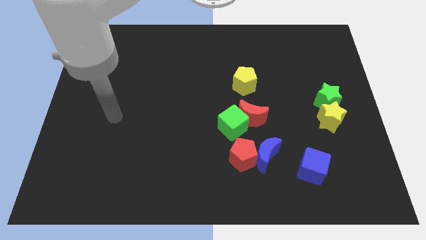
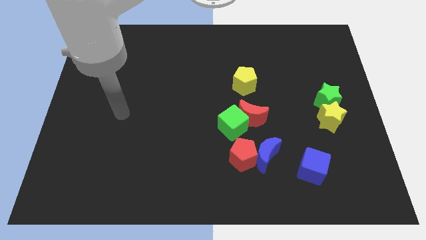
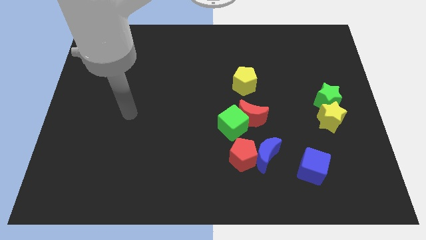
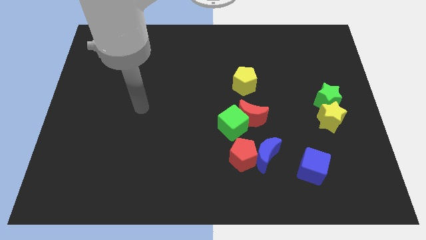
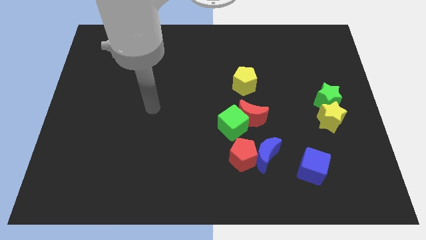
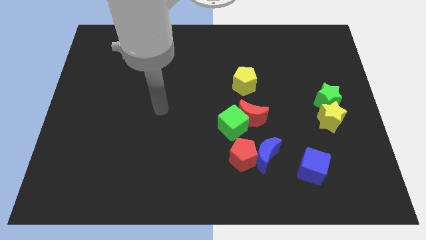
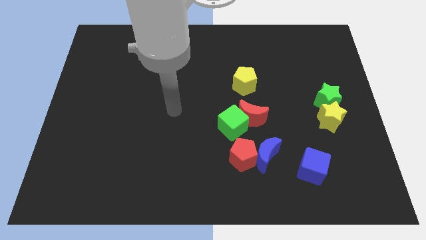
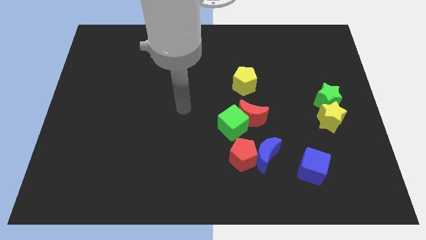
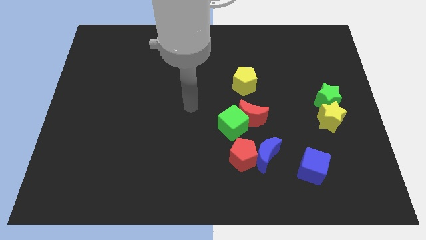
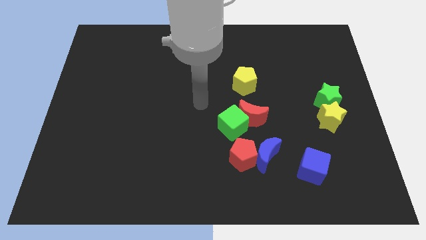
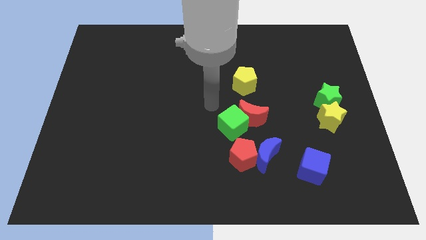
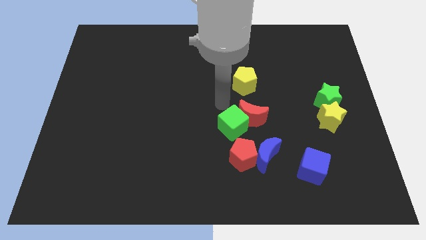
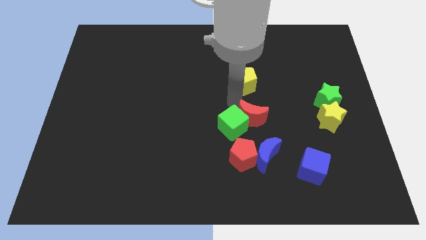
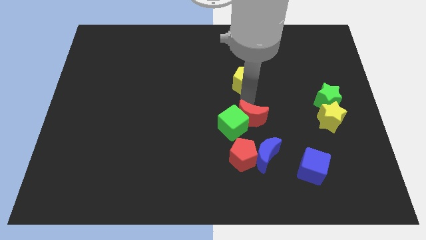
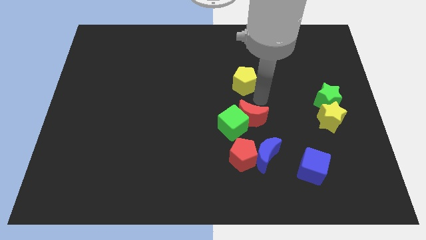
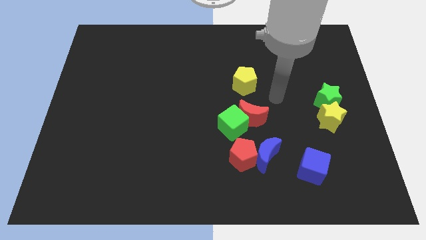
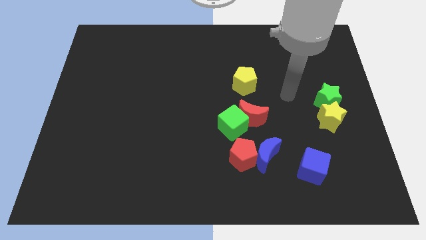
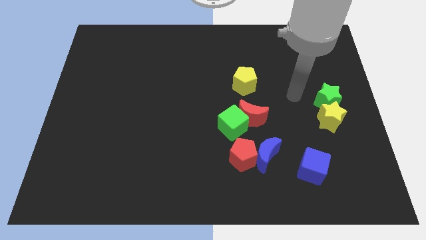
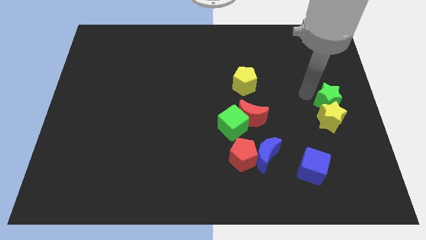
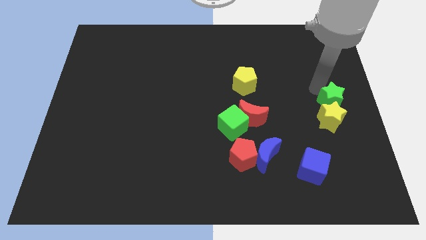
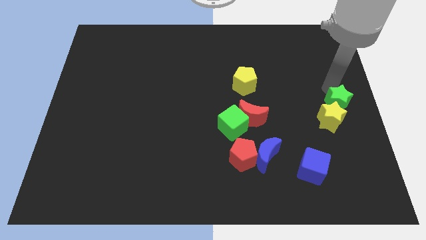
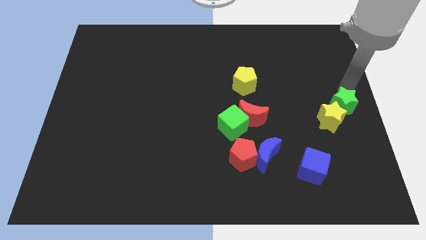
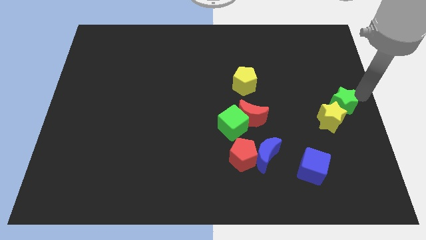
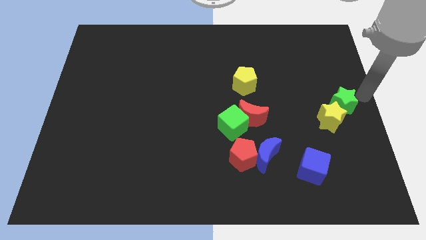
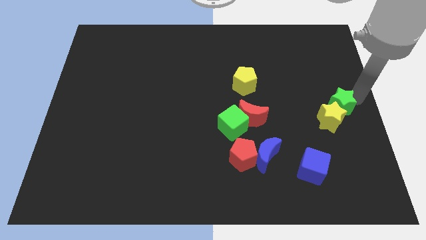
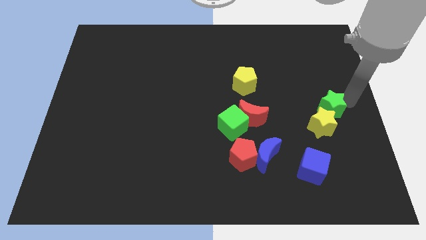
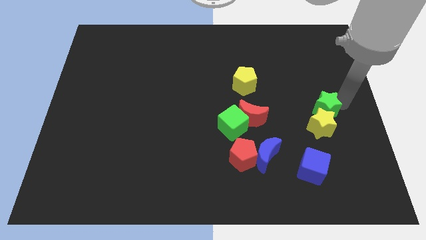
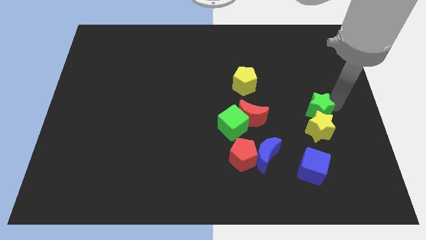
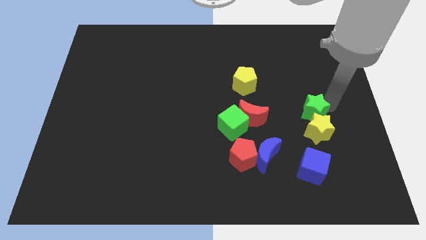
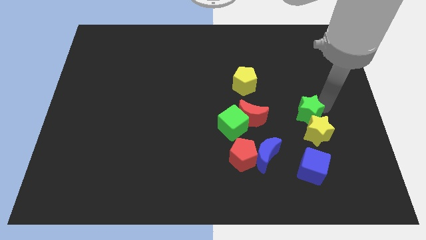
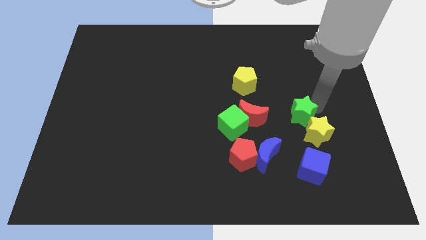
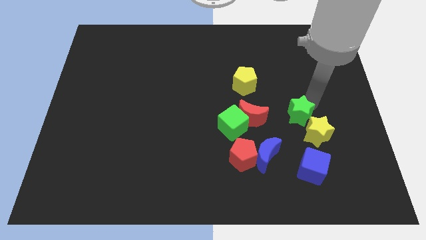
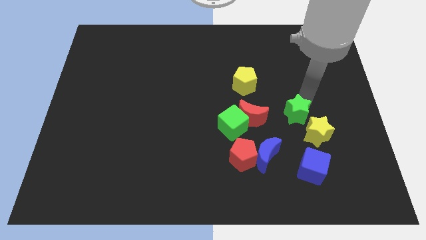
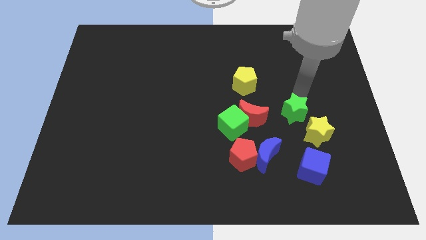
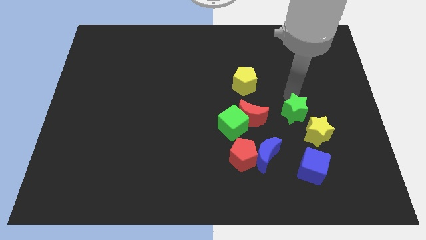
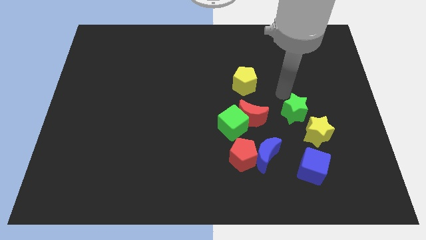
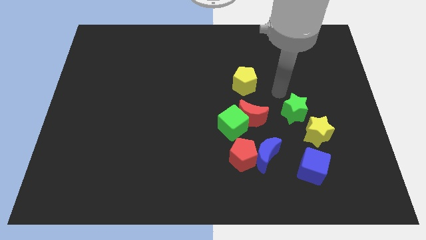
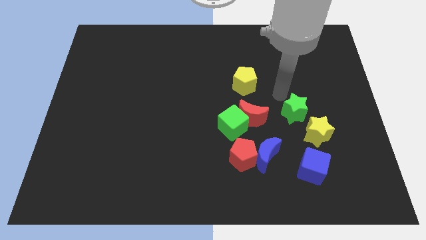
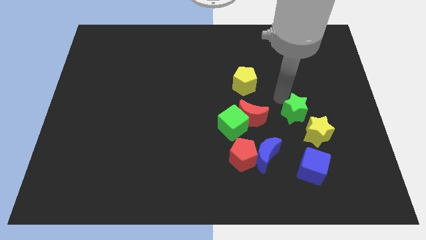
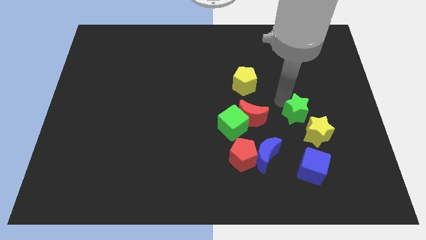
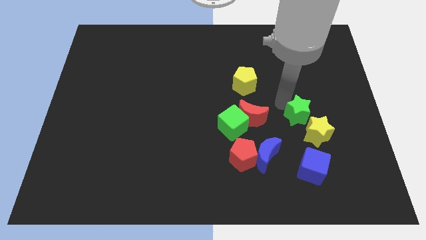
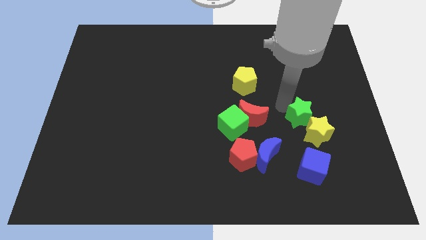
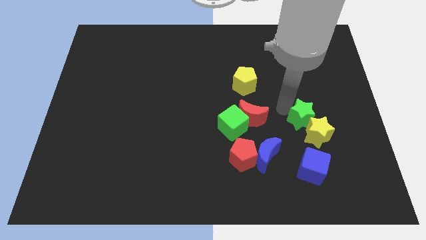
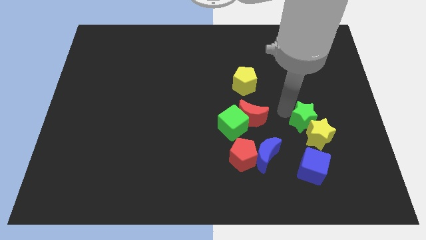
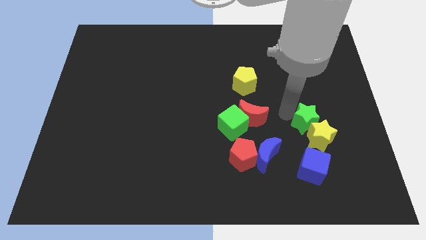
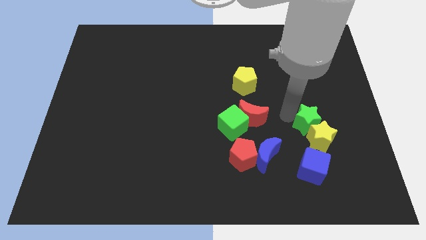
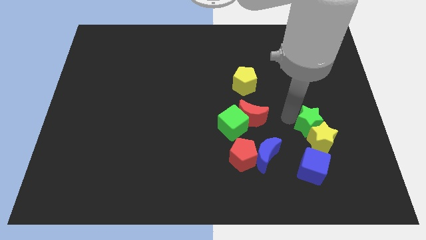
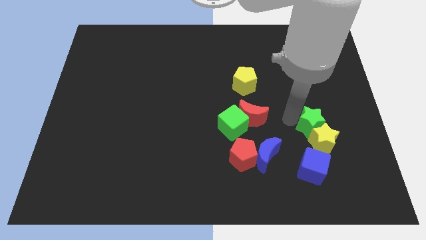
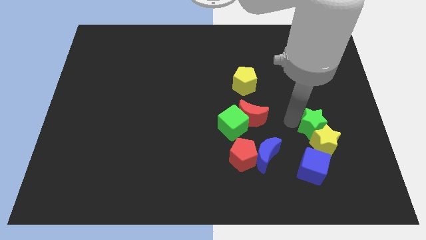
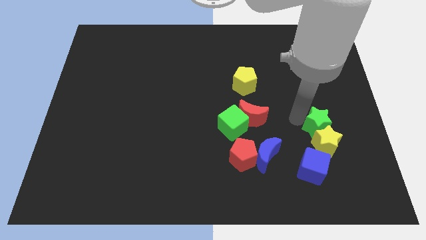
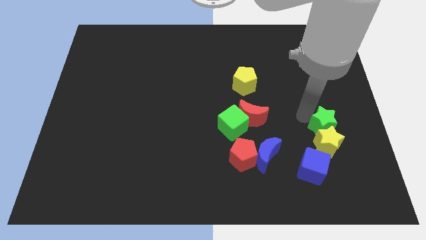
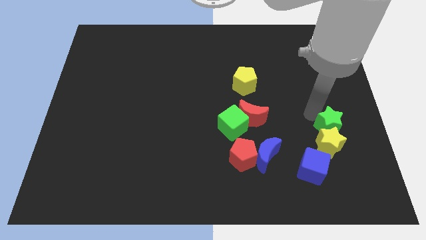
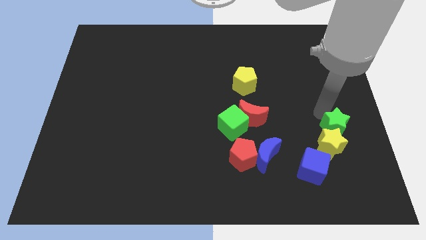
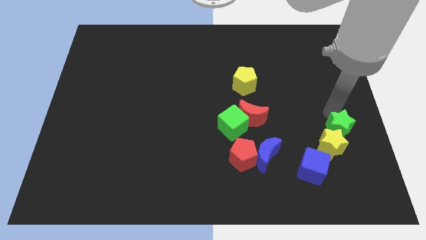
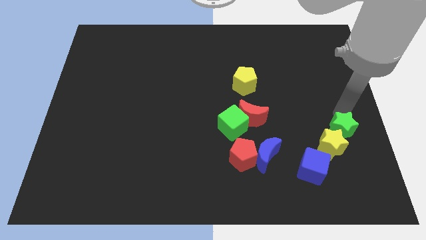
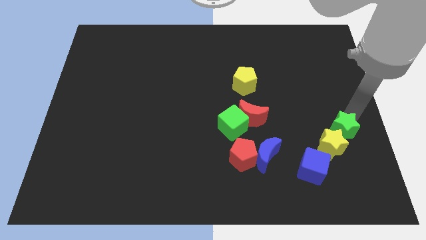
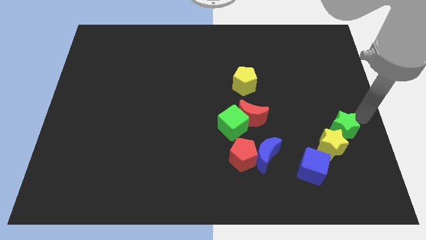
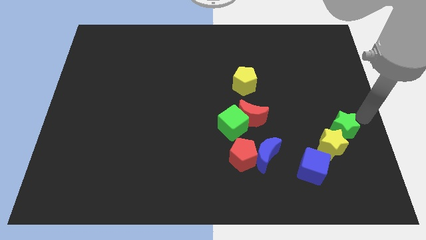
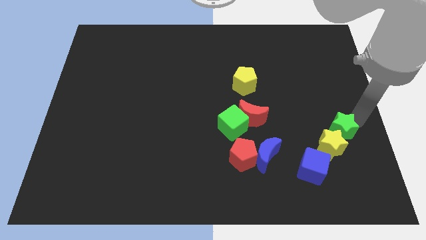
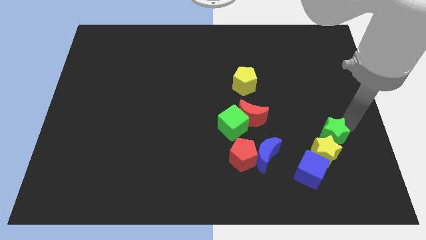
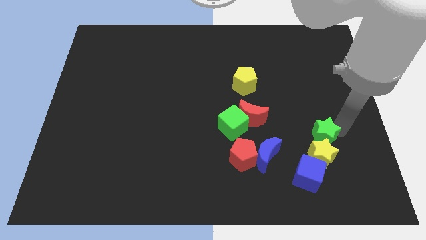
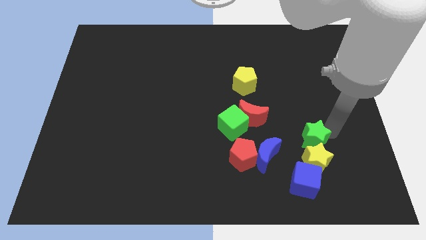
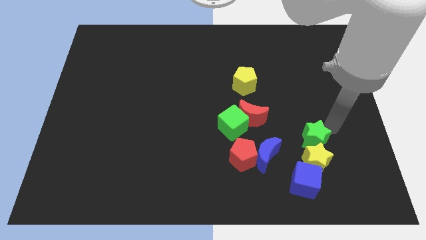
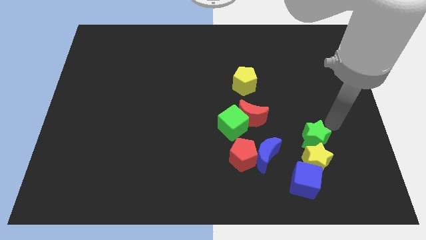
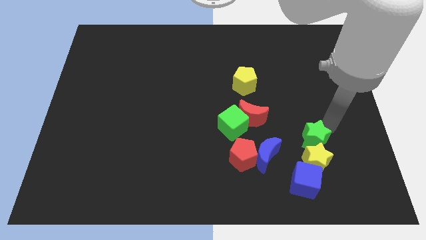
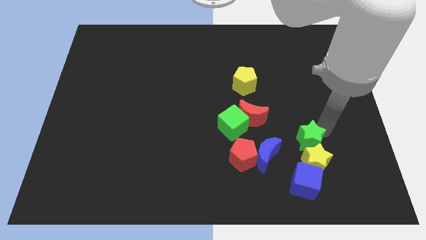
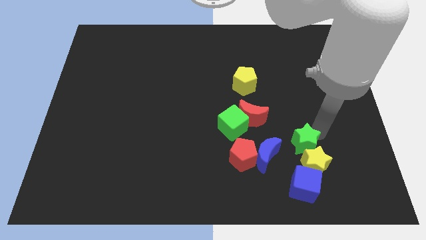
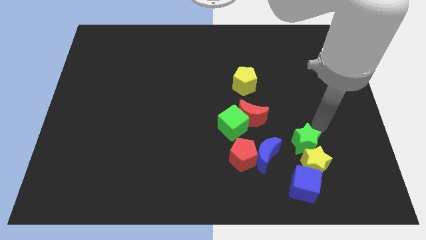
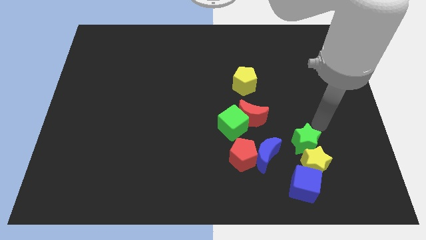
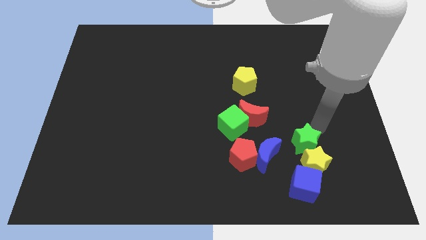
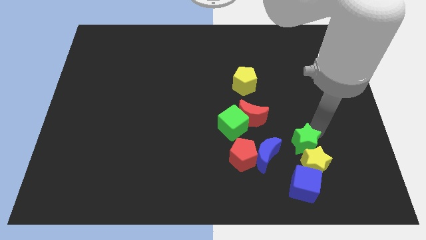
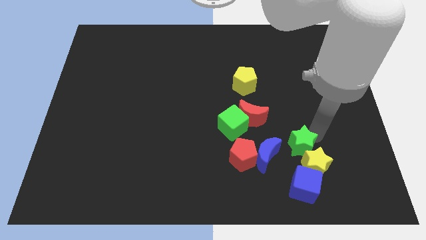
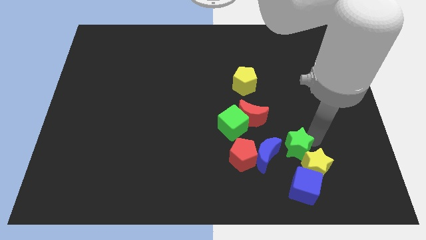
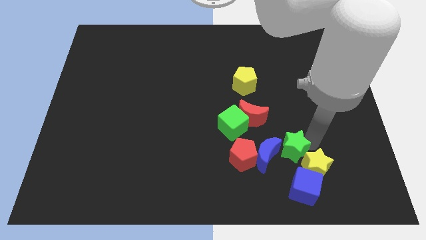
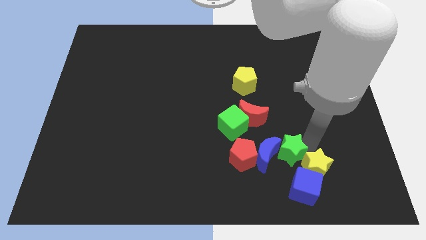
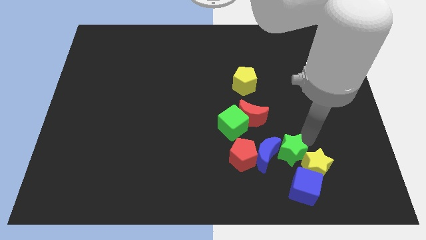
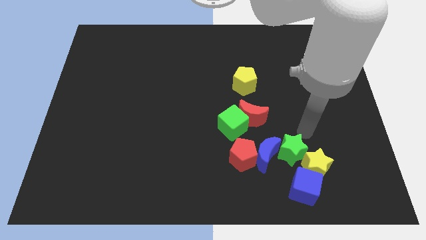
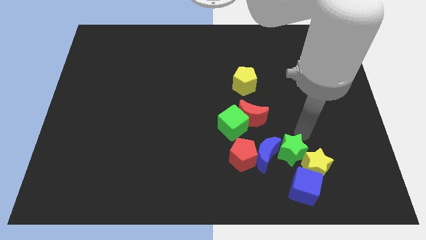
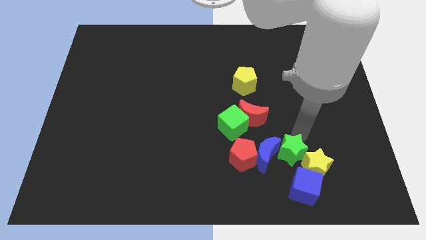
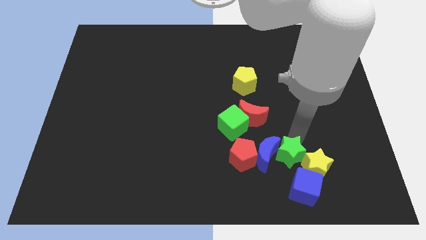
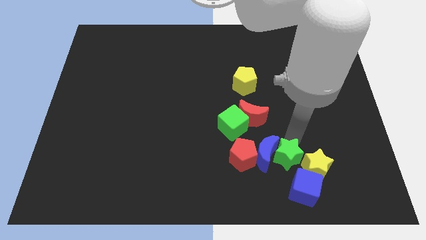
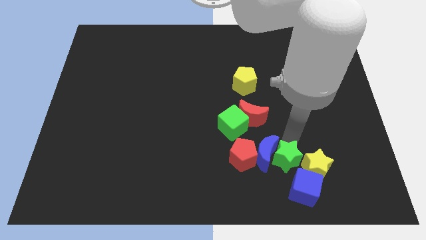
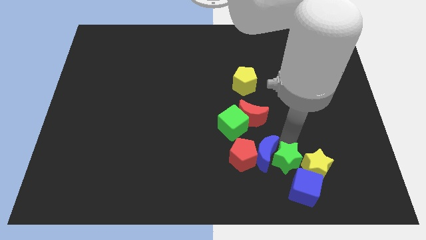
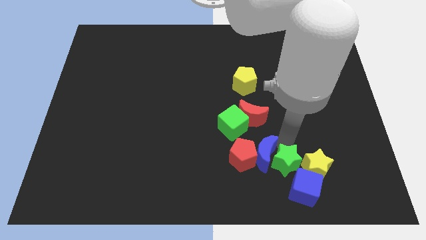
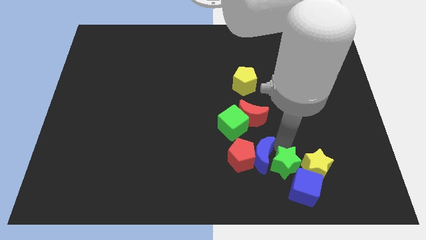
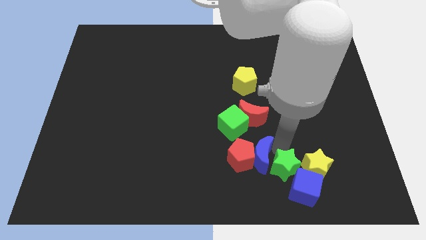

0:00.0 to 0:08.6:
push the green star to the bottom right of the red pentagon
